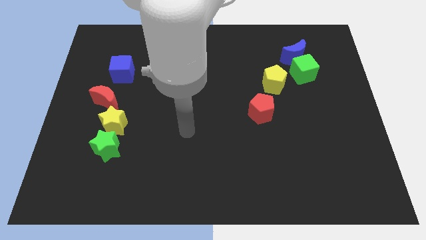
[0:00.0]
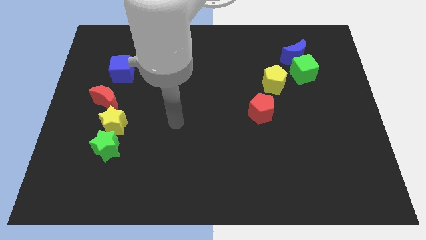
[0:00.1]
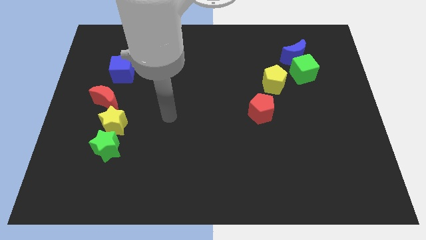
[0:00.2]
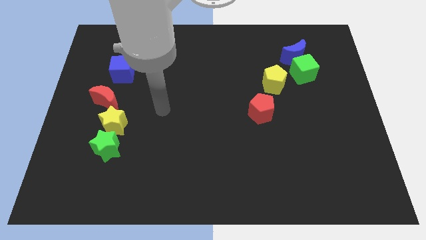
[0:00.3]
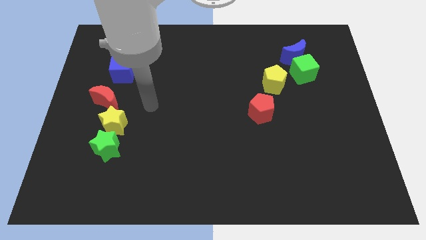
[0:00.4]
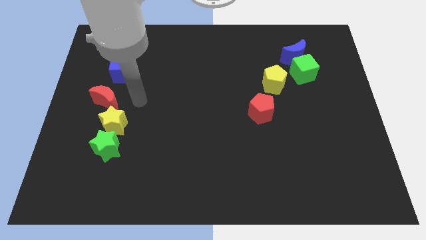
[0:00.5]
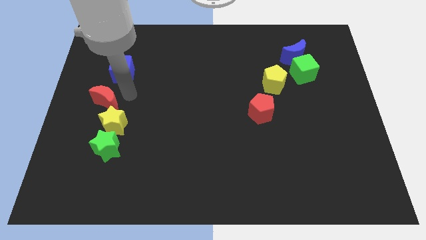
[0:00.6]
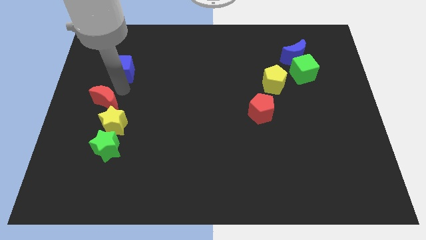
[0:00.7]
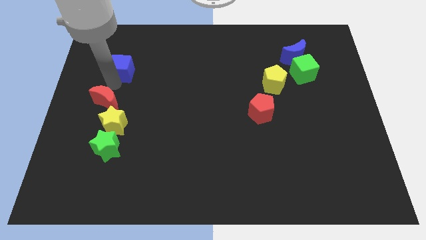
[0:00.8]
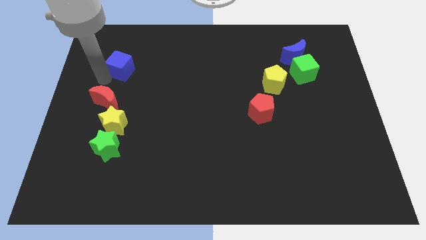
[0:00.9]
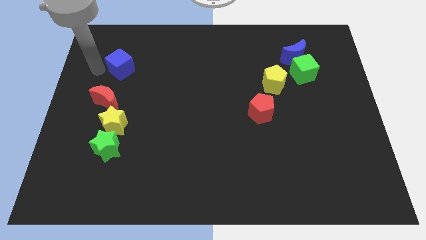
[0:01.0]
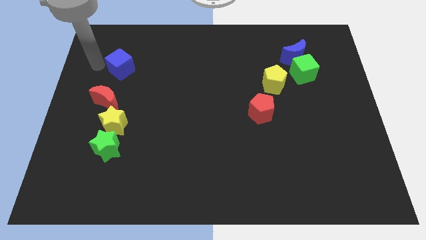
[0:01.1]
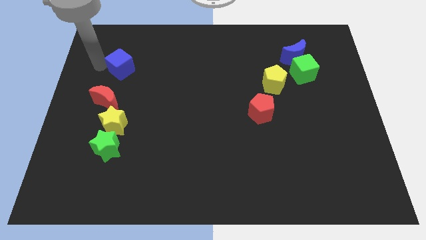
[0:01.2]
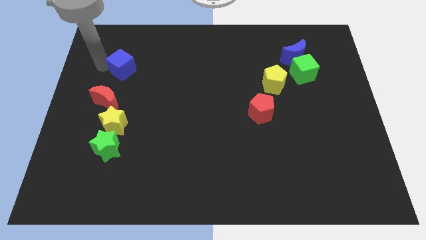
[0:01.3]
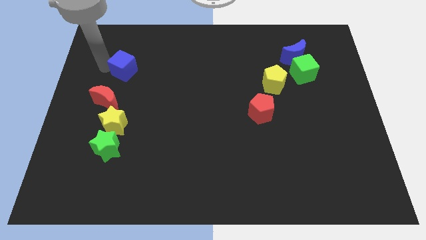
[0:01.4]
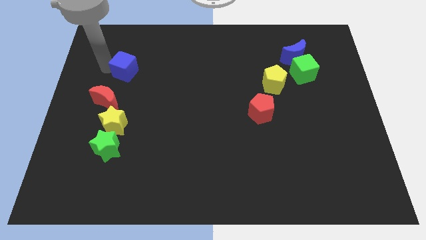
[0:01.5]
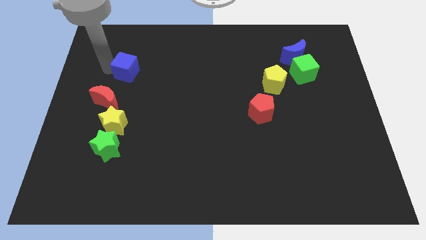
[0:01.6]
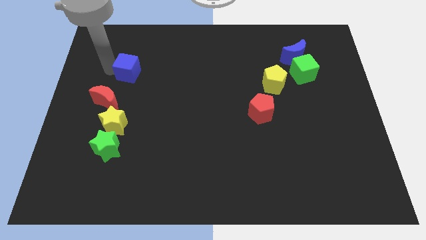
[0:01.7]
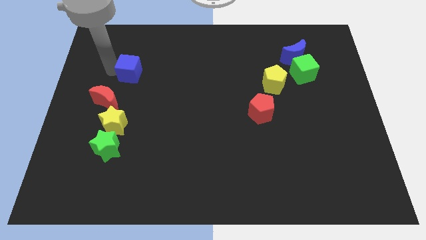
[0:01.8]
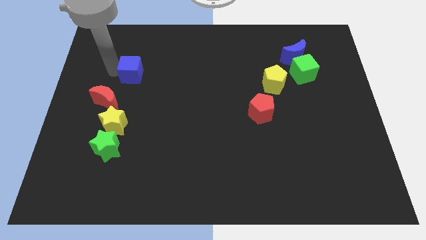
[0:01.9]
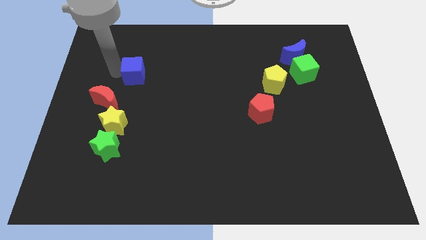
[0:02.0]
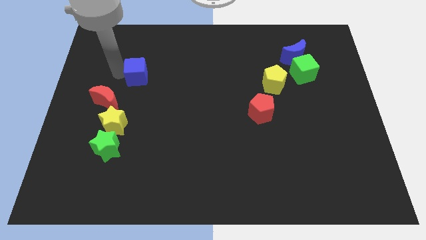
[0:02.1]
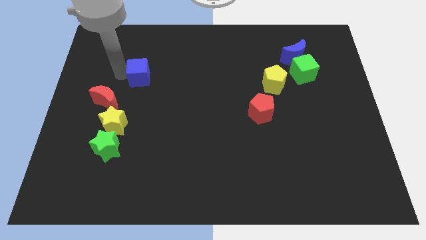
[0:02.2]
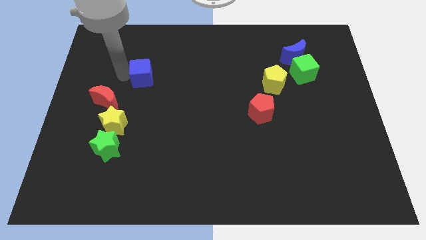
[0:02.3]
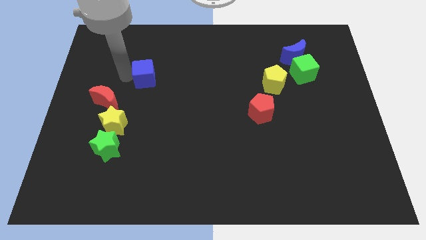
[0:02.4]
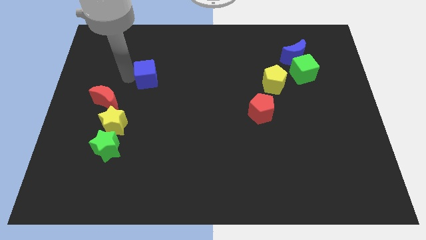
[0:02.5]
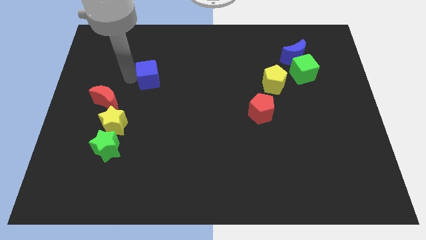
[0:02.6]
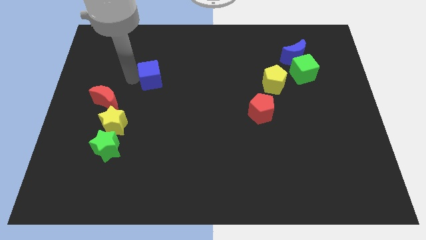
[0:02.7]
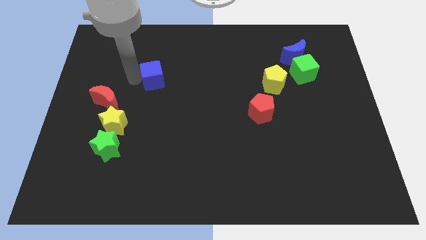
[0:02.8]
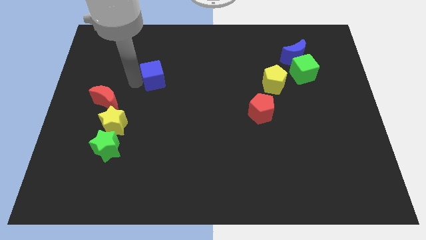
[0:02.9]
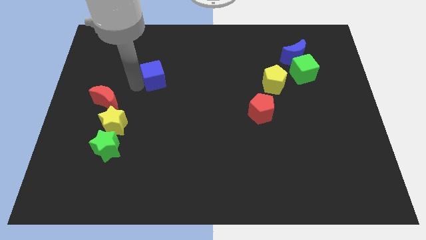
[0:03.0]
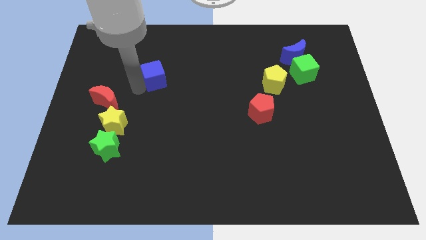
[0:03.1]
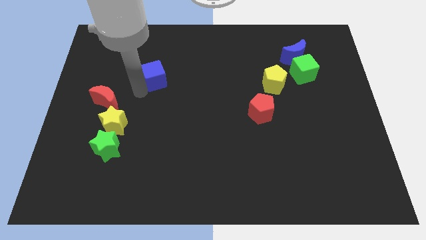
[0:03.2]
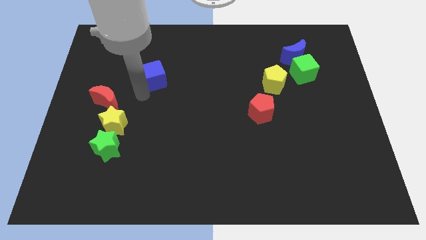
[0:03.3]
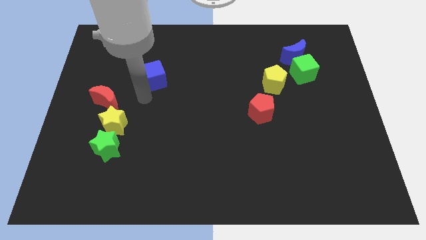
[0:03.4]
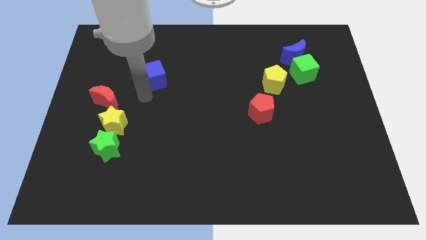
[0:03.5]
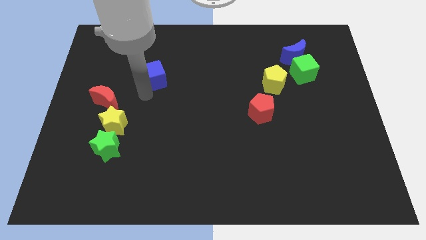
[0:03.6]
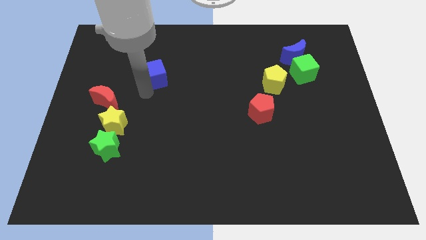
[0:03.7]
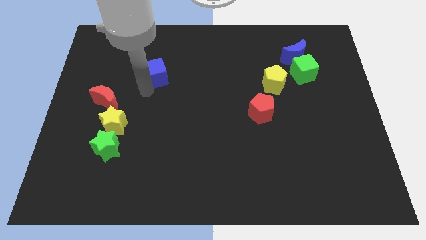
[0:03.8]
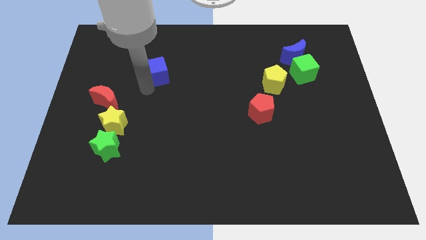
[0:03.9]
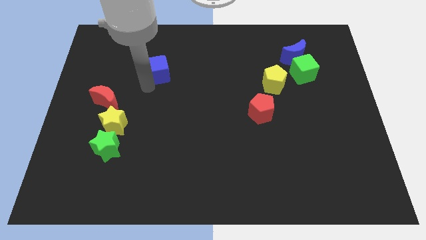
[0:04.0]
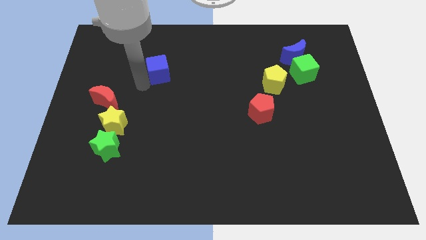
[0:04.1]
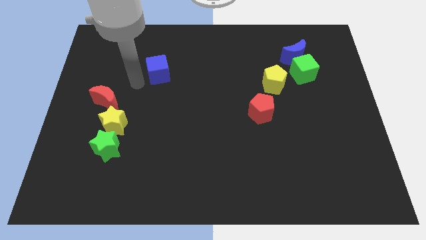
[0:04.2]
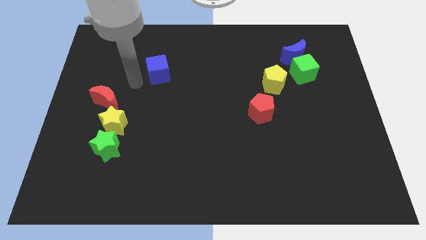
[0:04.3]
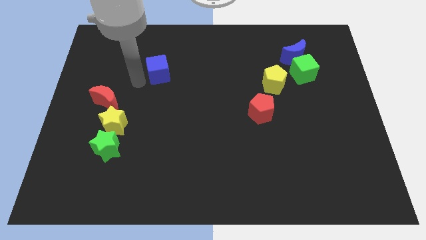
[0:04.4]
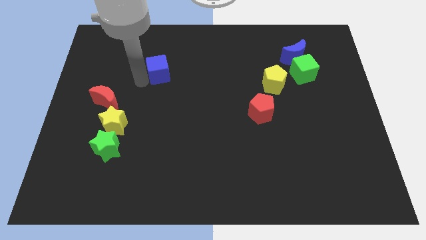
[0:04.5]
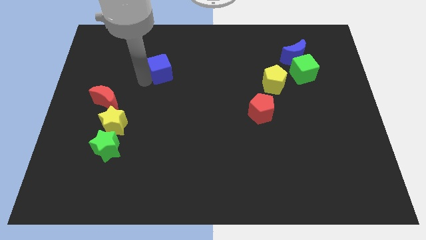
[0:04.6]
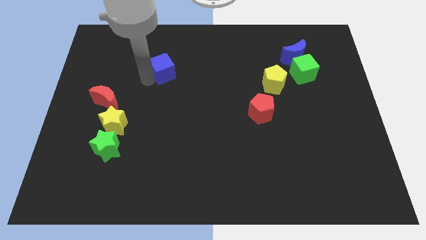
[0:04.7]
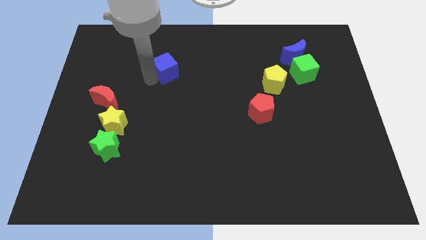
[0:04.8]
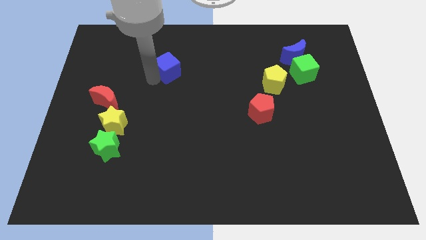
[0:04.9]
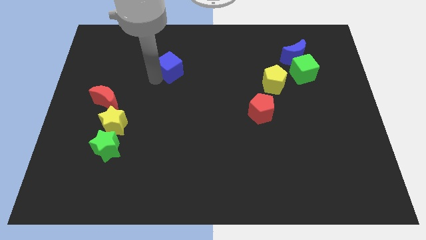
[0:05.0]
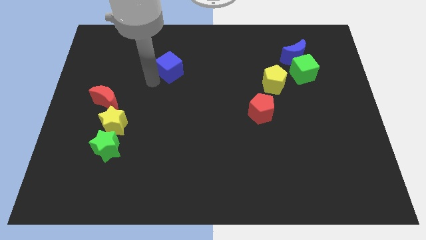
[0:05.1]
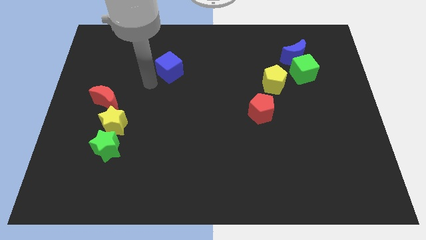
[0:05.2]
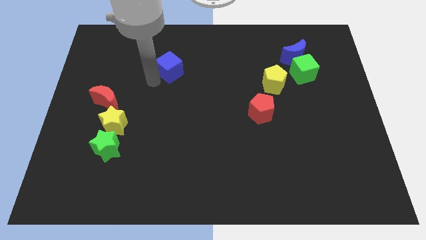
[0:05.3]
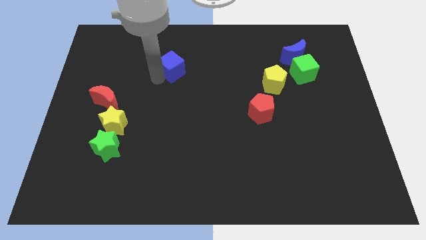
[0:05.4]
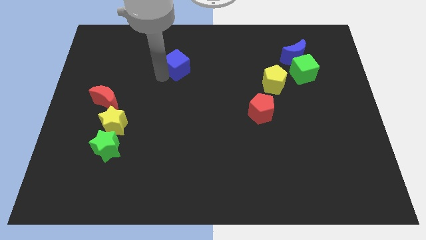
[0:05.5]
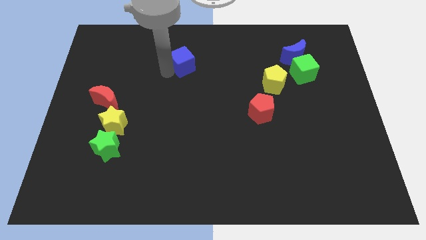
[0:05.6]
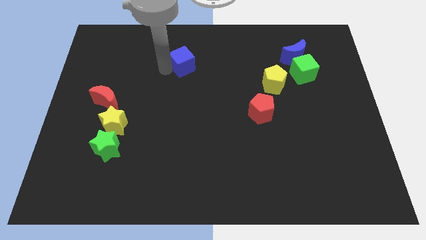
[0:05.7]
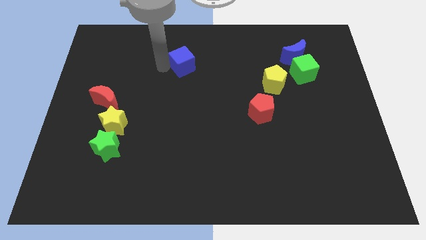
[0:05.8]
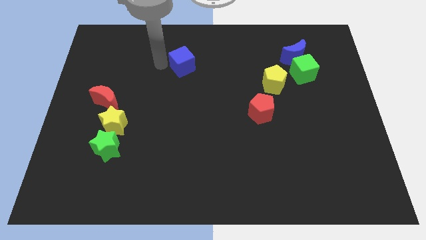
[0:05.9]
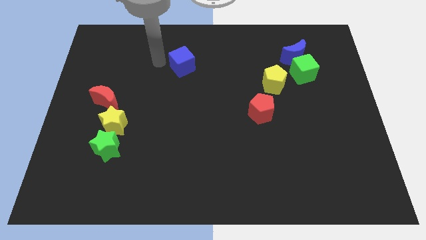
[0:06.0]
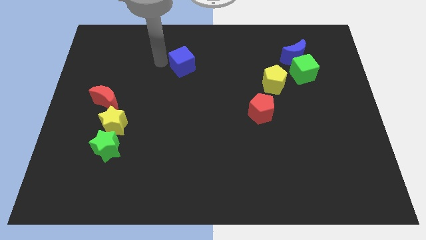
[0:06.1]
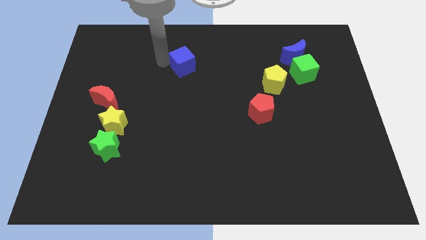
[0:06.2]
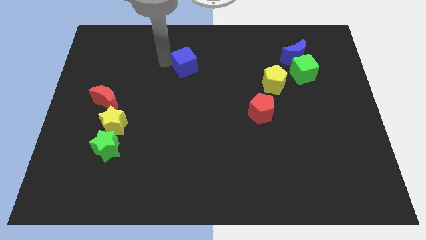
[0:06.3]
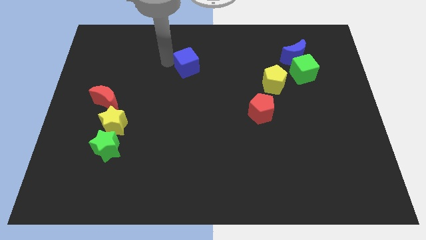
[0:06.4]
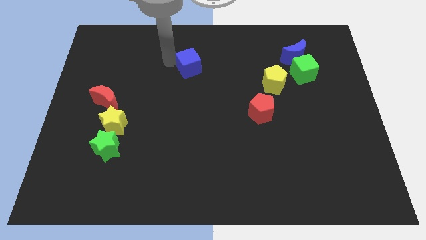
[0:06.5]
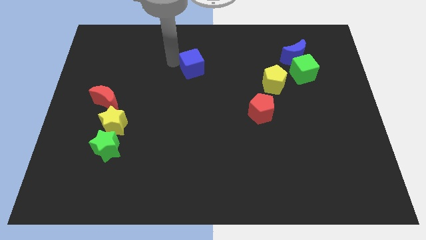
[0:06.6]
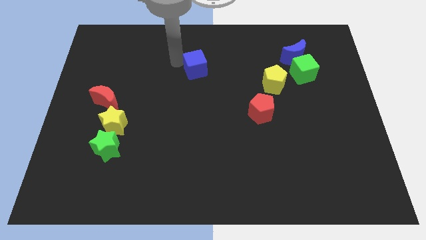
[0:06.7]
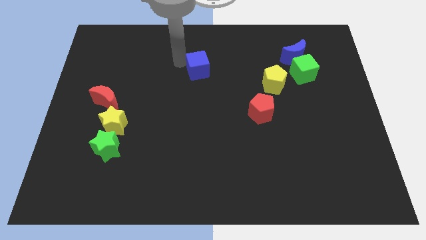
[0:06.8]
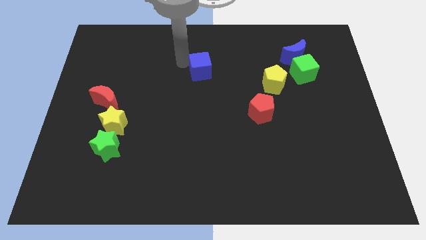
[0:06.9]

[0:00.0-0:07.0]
slide the blue cube right

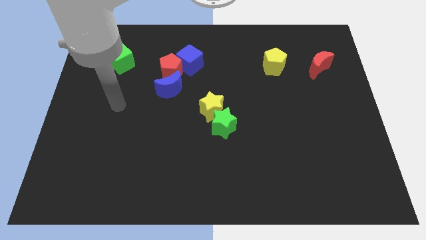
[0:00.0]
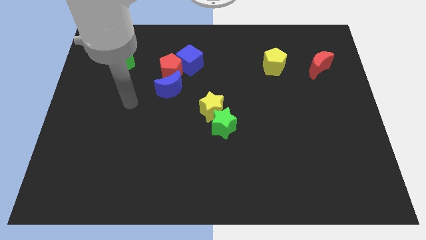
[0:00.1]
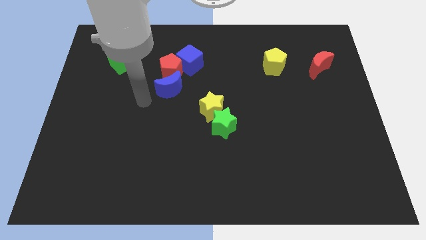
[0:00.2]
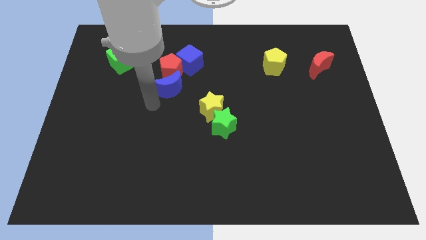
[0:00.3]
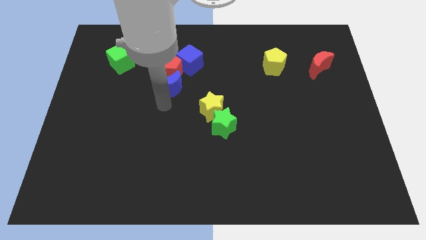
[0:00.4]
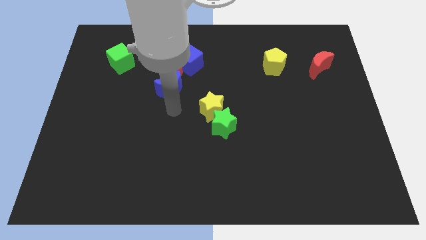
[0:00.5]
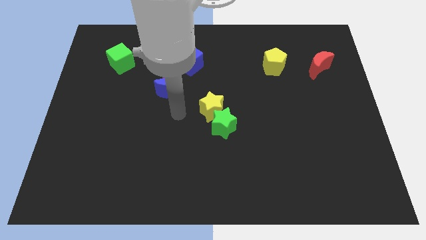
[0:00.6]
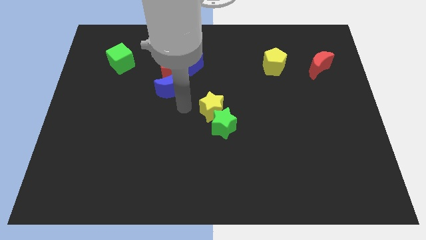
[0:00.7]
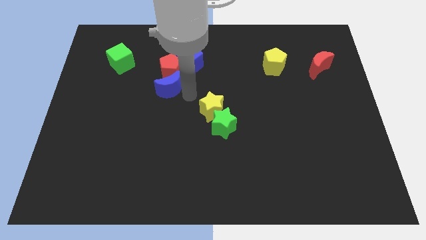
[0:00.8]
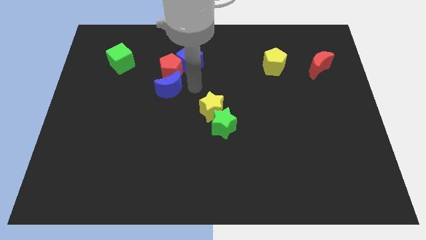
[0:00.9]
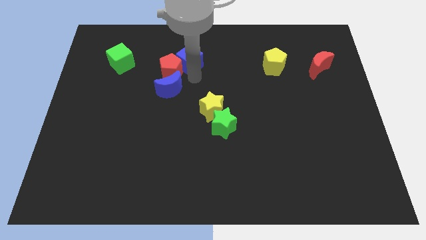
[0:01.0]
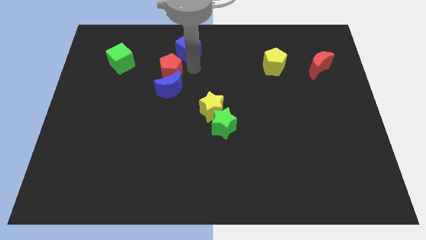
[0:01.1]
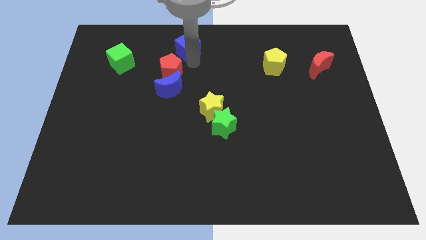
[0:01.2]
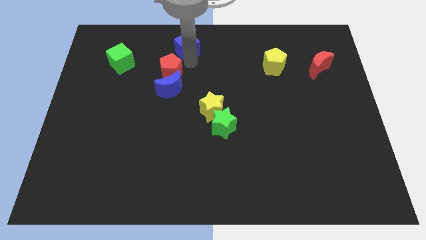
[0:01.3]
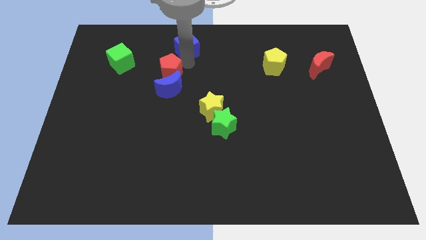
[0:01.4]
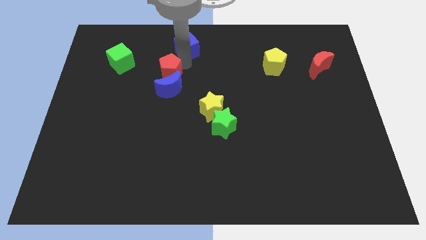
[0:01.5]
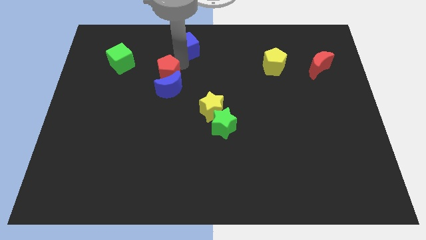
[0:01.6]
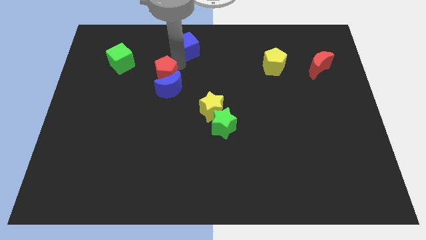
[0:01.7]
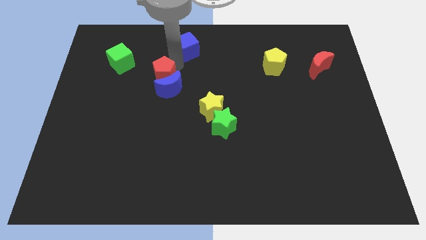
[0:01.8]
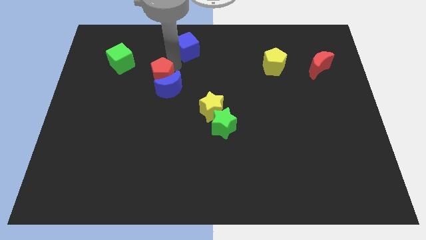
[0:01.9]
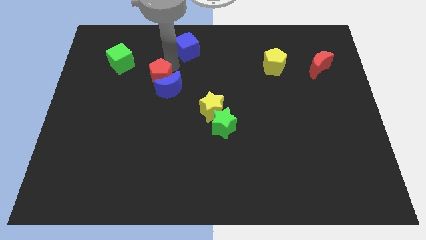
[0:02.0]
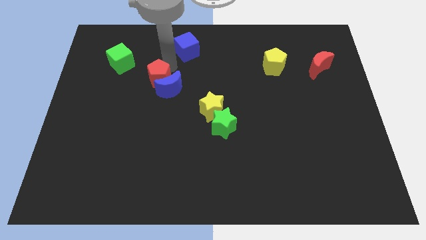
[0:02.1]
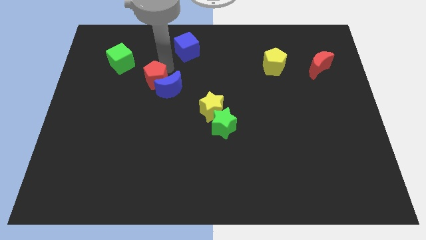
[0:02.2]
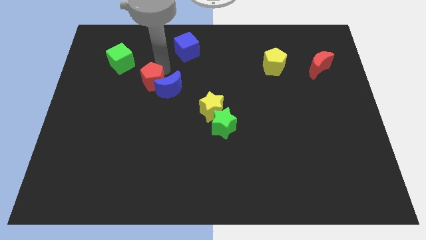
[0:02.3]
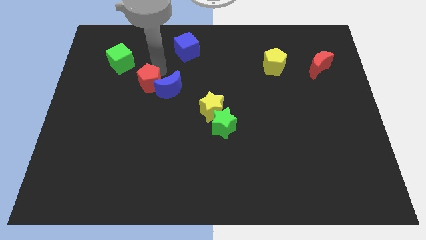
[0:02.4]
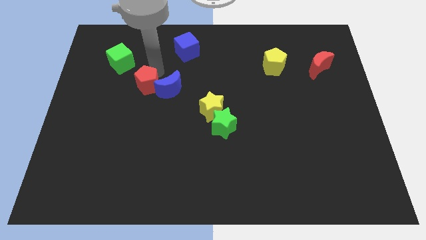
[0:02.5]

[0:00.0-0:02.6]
move the red pentagon diagonally down and to the left a little bit
